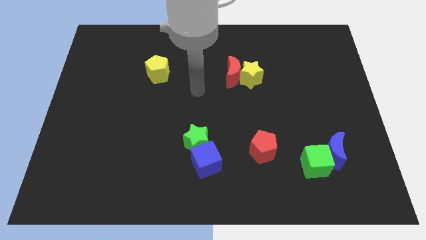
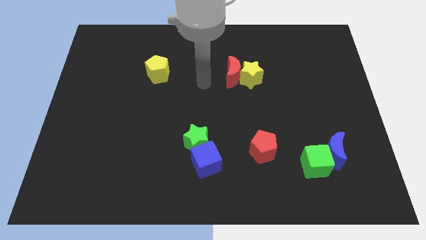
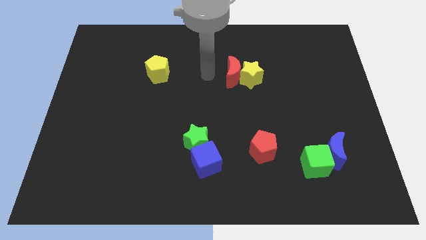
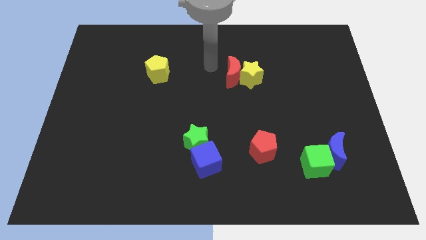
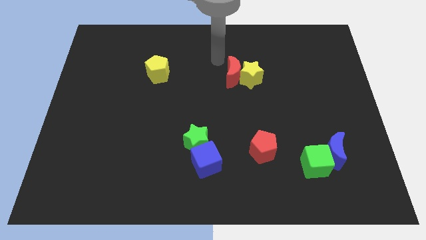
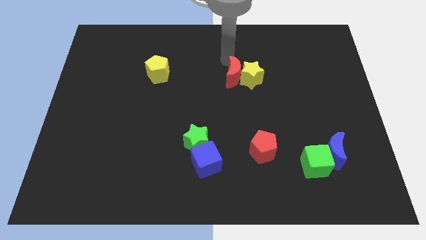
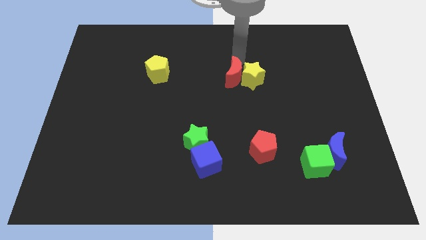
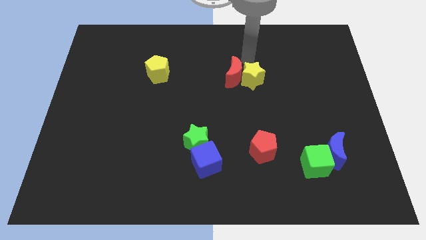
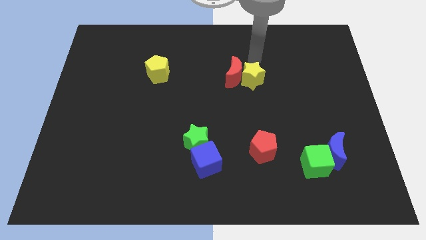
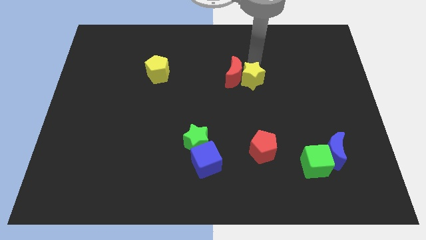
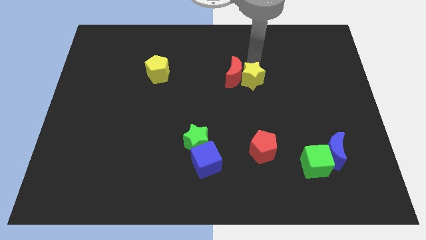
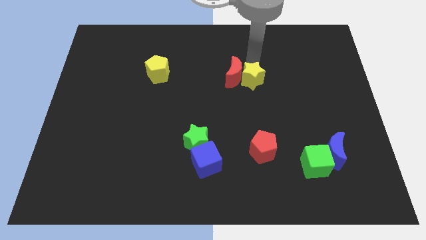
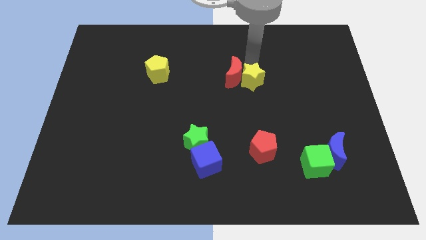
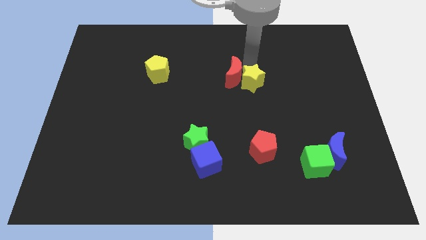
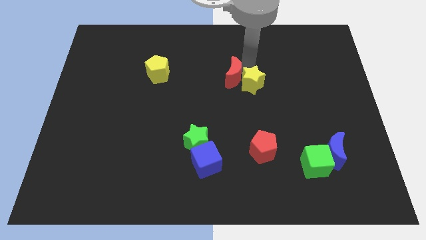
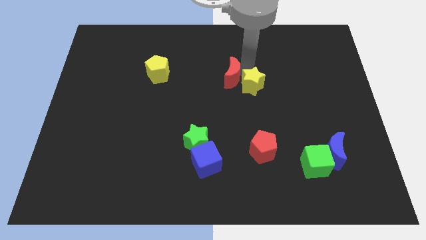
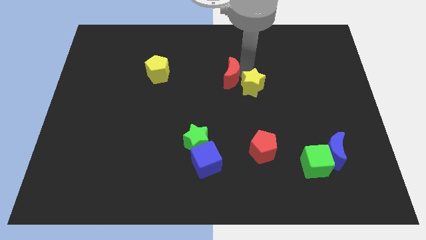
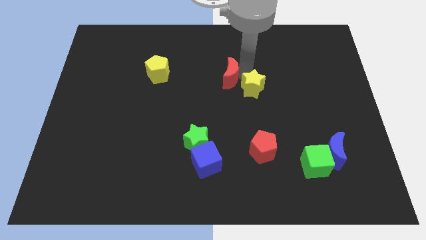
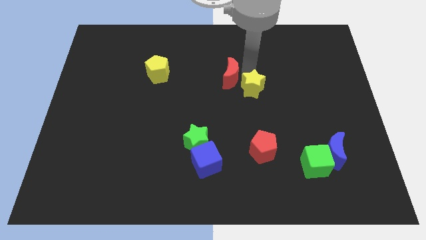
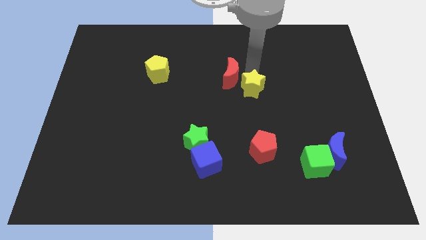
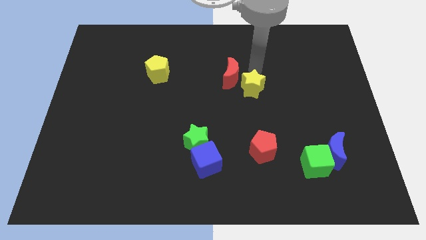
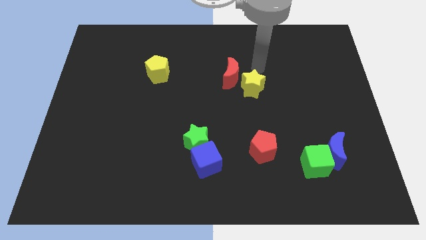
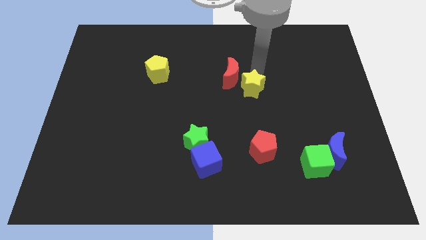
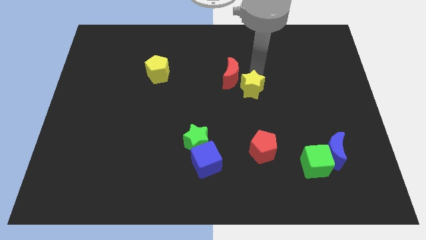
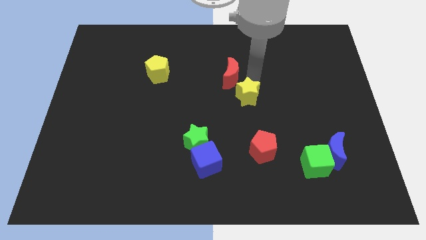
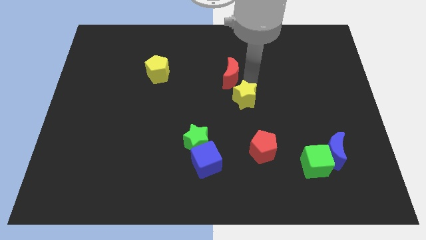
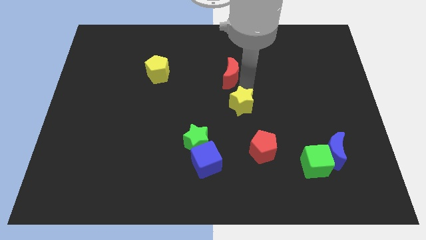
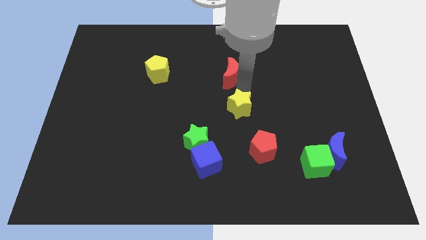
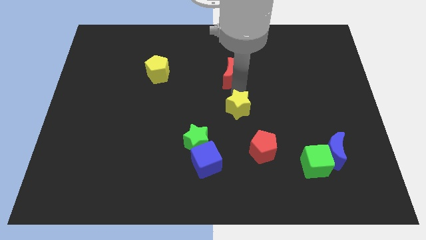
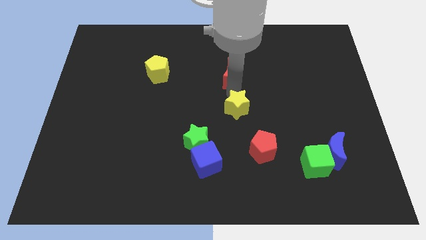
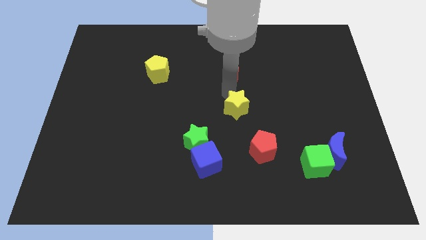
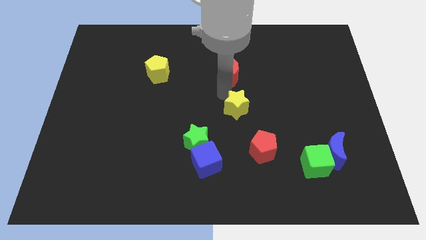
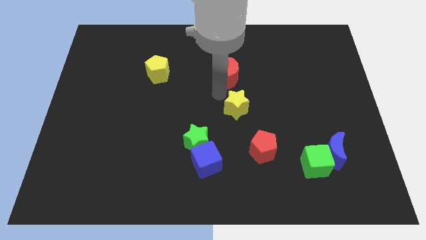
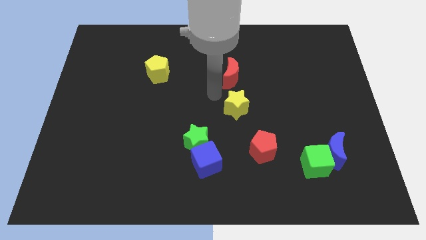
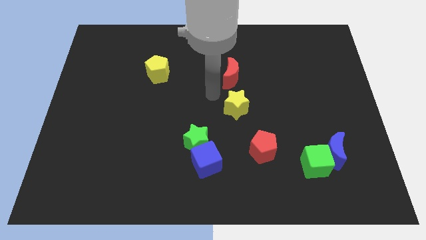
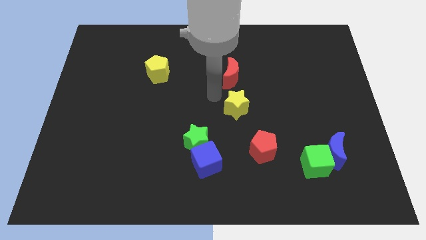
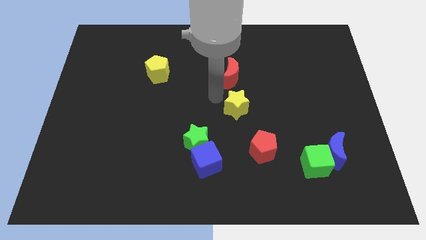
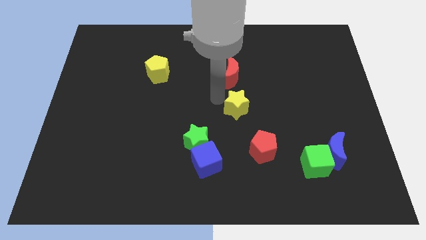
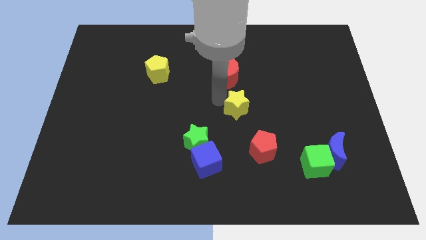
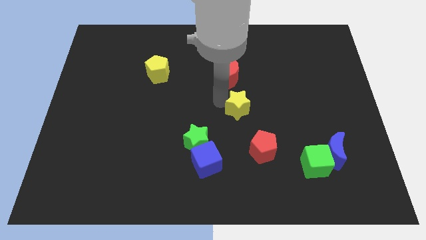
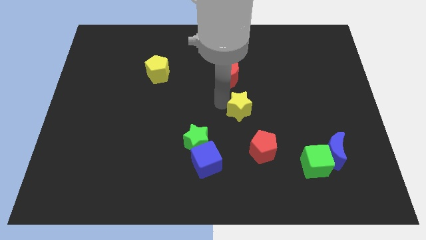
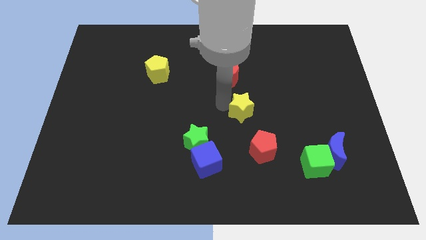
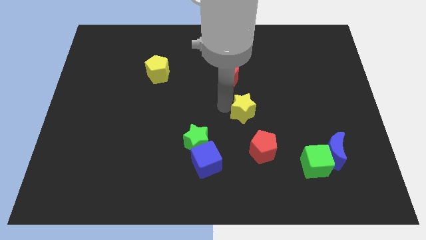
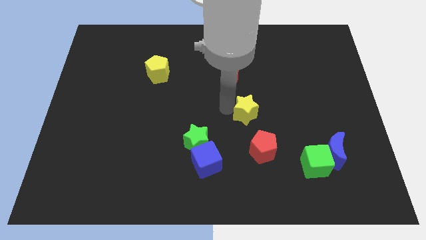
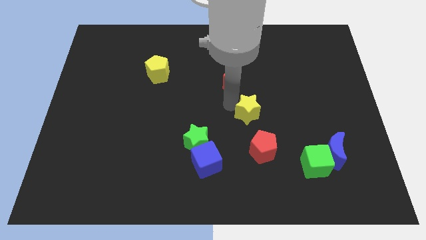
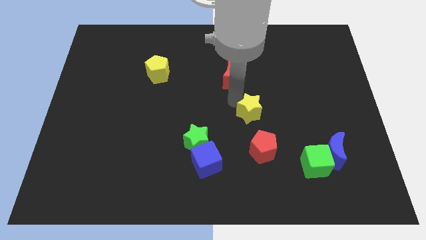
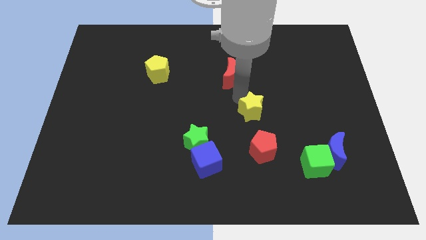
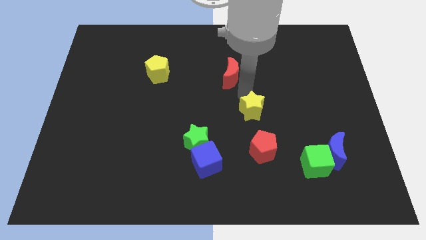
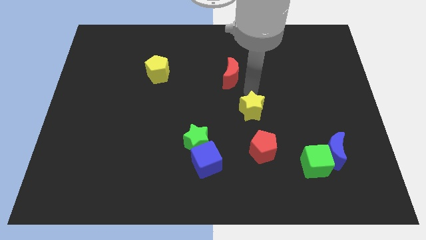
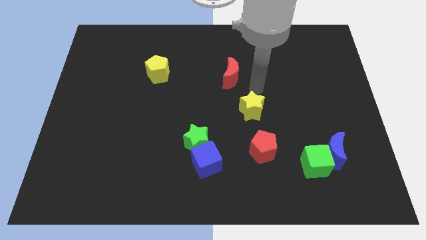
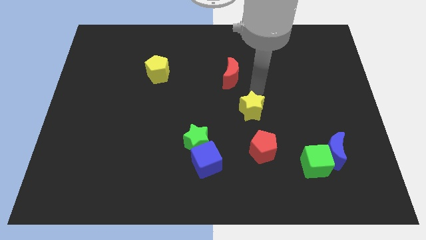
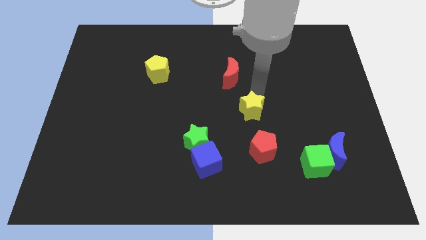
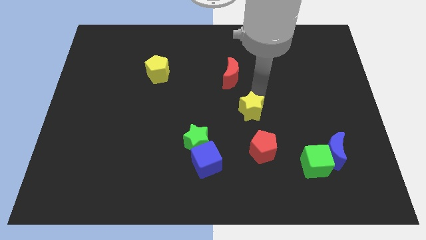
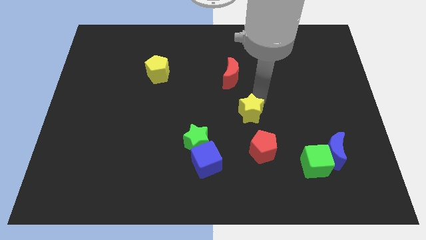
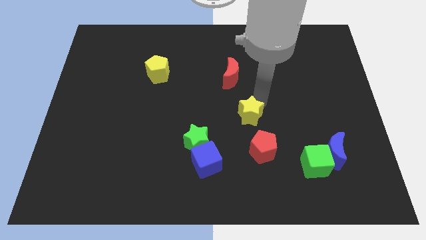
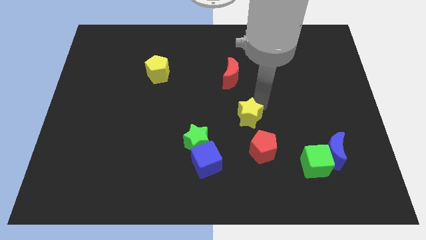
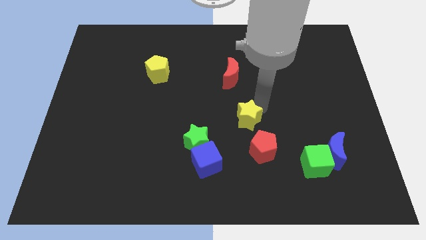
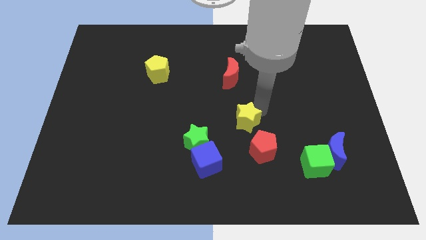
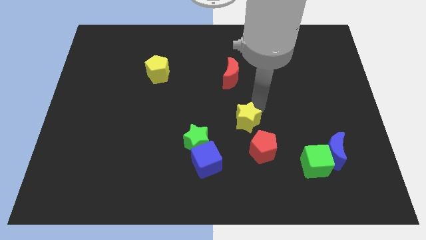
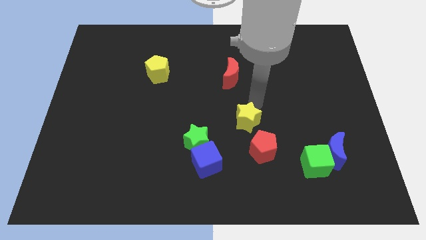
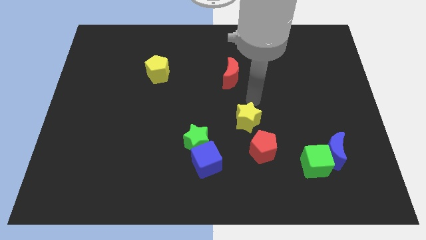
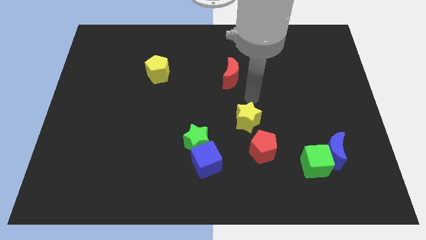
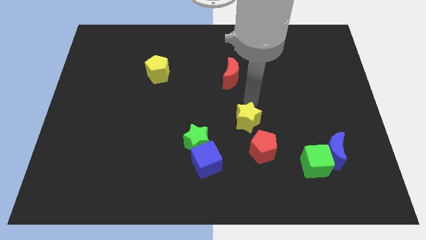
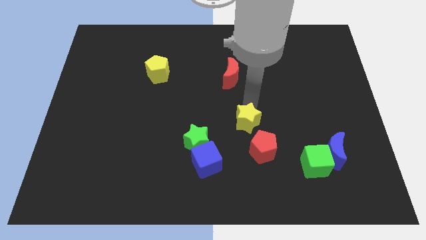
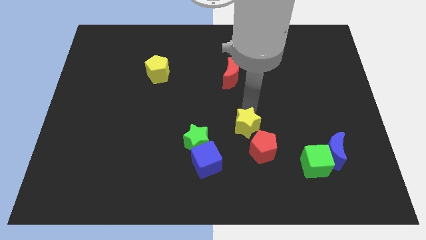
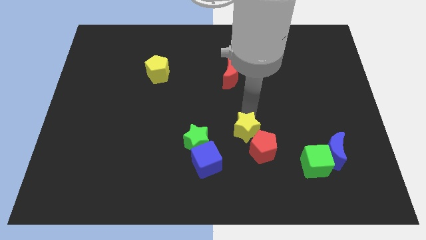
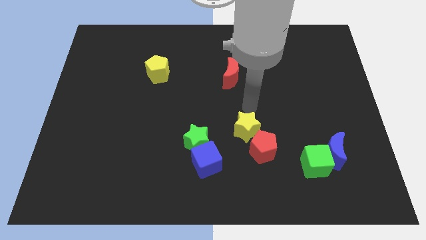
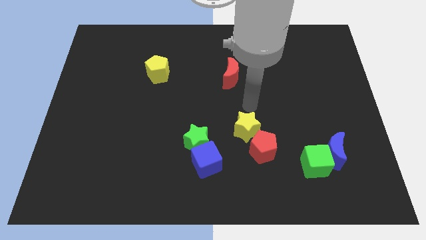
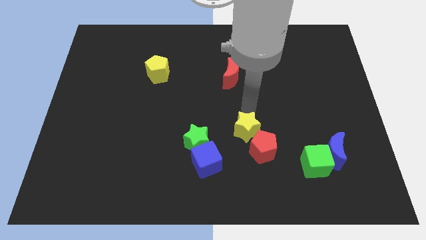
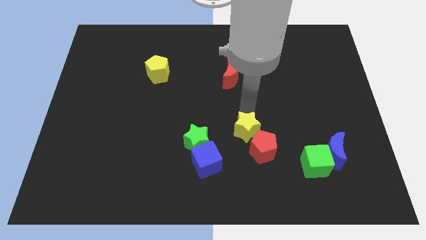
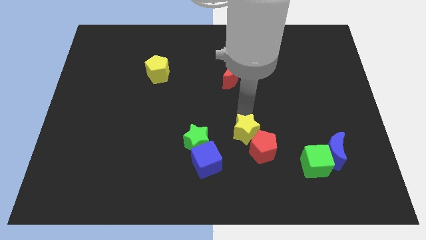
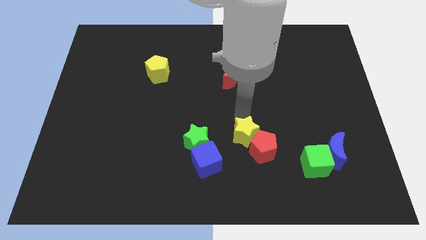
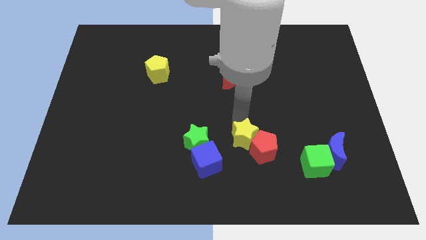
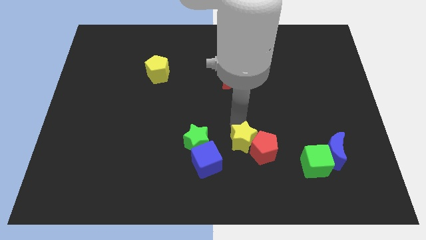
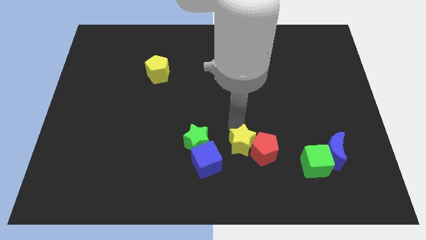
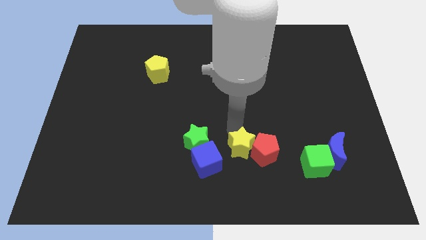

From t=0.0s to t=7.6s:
push the yellow star diagonally down and to the left of the red pentagon
